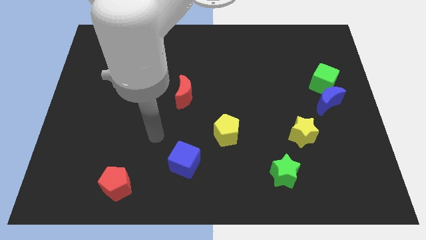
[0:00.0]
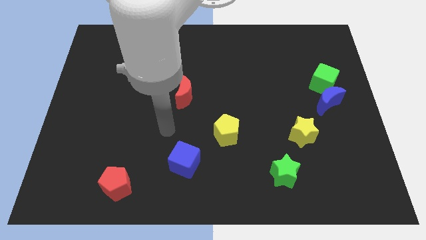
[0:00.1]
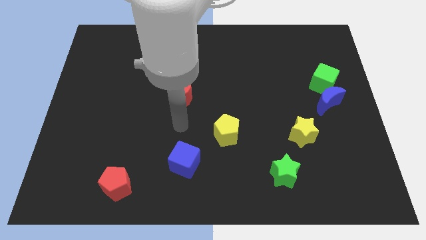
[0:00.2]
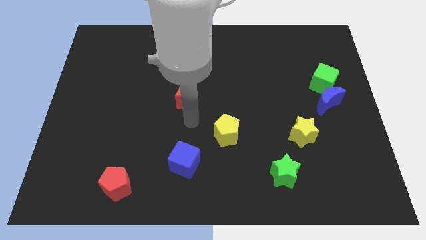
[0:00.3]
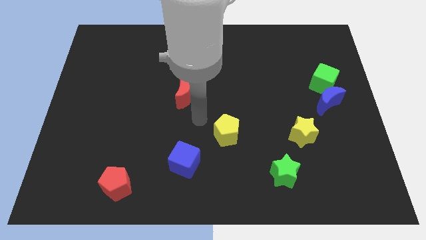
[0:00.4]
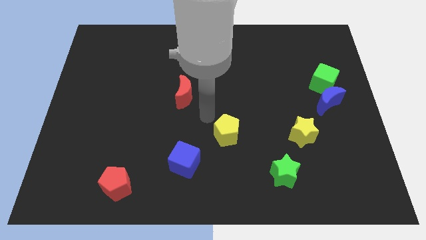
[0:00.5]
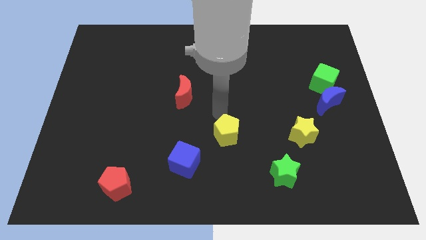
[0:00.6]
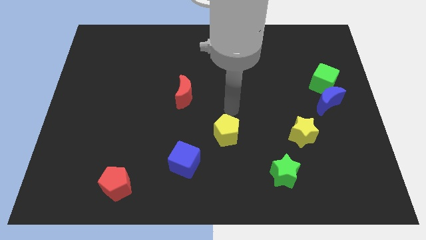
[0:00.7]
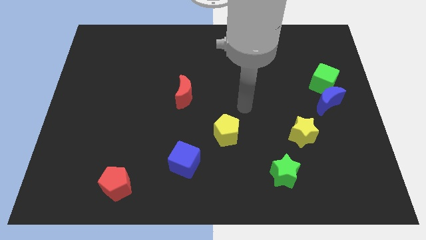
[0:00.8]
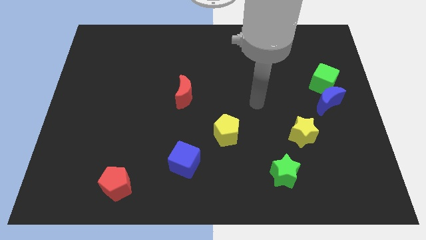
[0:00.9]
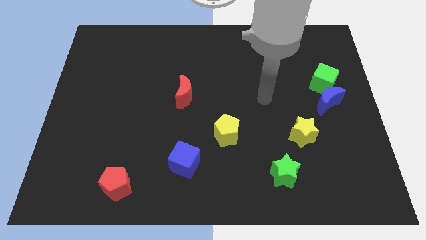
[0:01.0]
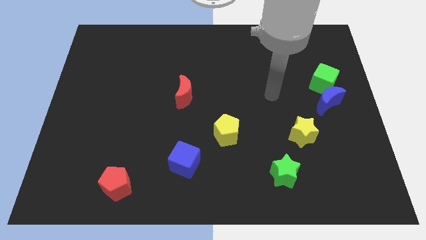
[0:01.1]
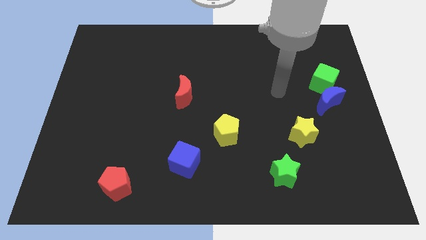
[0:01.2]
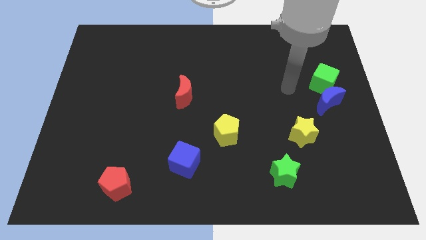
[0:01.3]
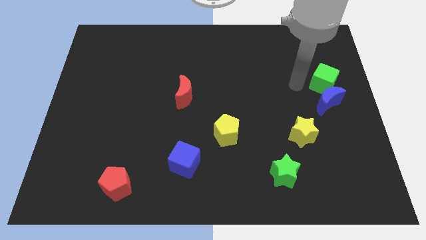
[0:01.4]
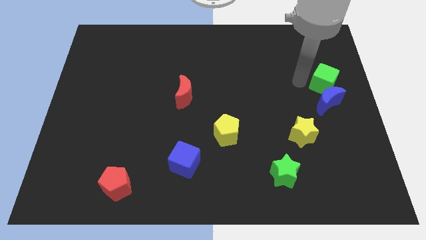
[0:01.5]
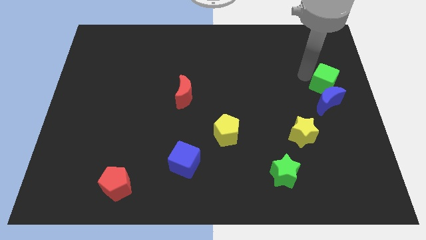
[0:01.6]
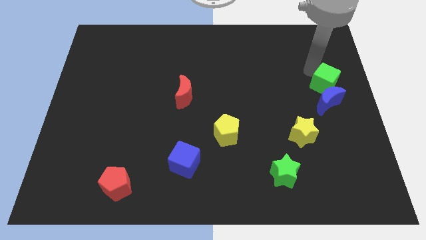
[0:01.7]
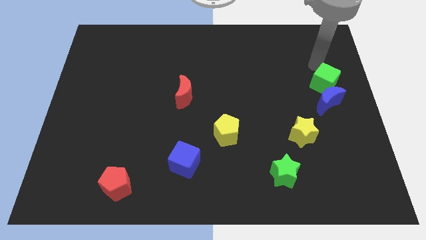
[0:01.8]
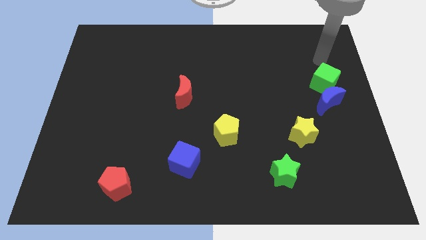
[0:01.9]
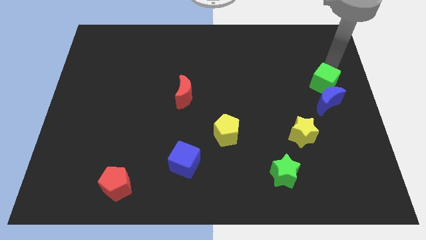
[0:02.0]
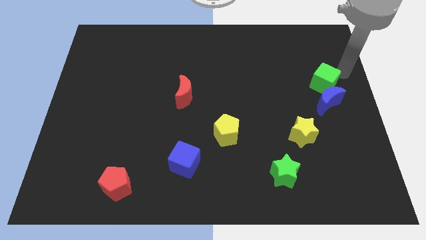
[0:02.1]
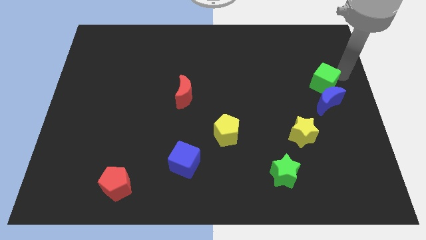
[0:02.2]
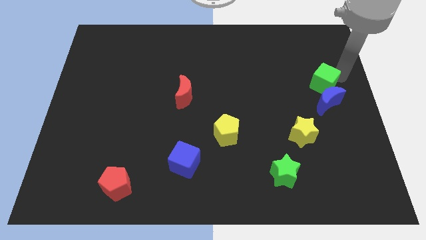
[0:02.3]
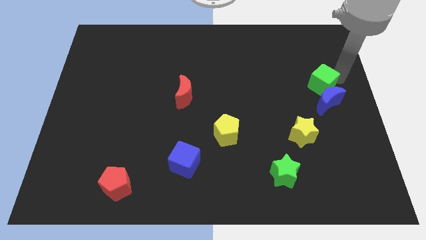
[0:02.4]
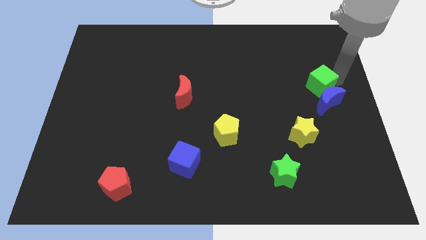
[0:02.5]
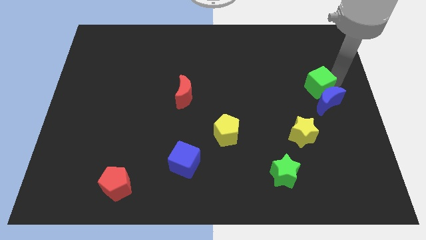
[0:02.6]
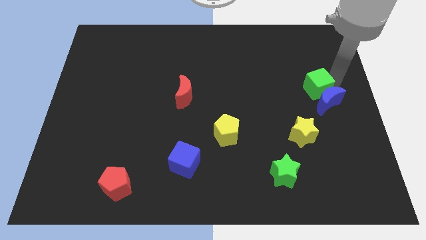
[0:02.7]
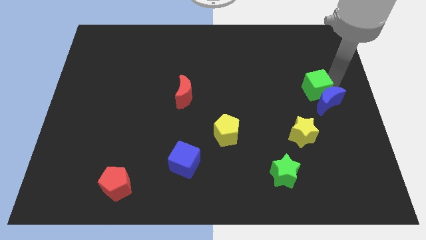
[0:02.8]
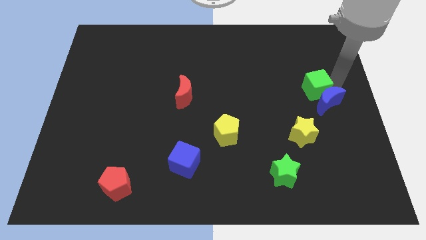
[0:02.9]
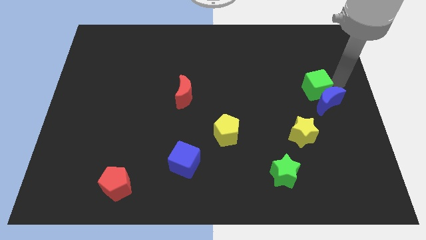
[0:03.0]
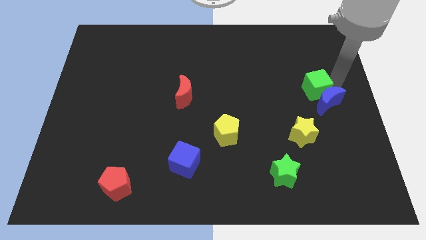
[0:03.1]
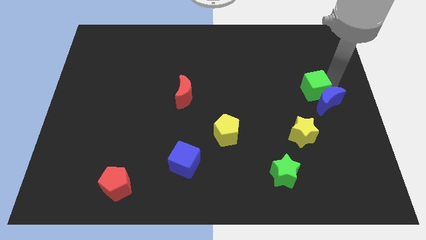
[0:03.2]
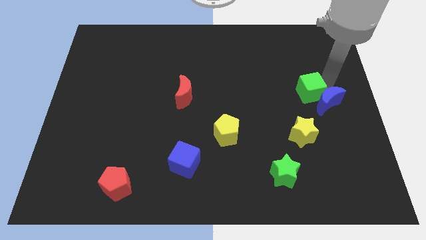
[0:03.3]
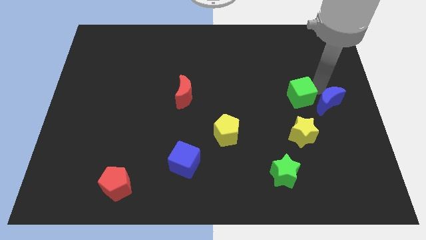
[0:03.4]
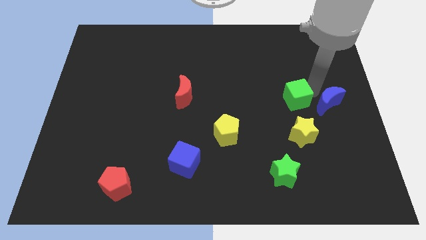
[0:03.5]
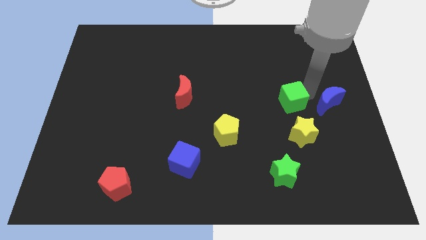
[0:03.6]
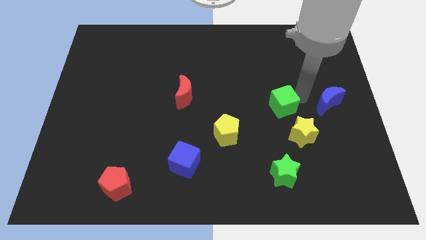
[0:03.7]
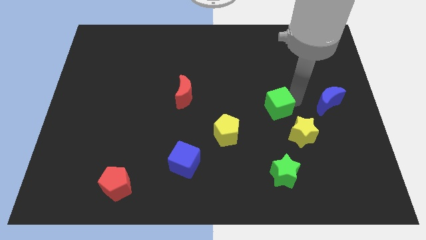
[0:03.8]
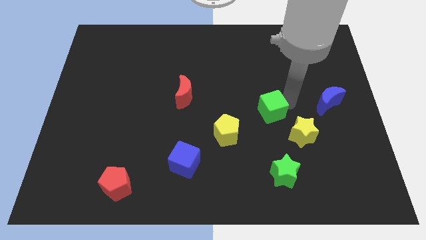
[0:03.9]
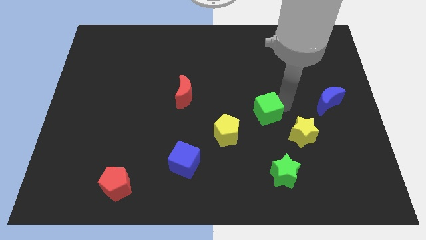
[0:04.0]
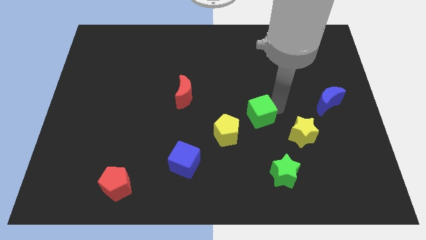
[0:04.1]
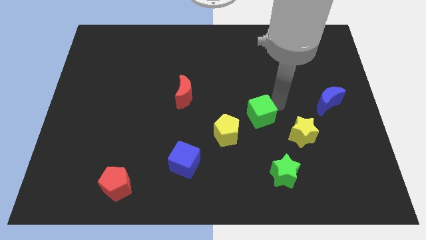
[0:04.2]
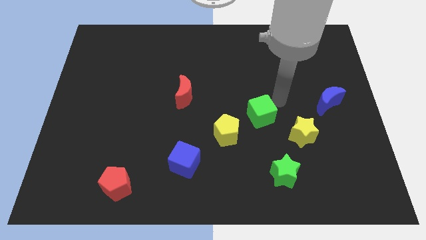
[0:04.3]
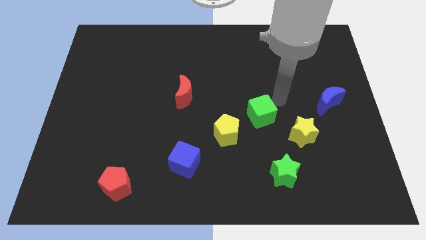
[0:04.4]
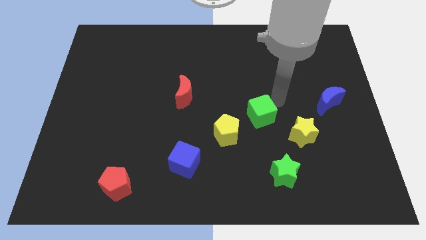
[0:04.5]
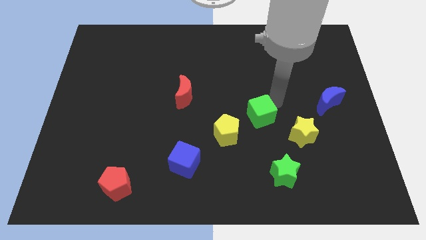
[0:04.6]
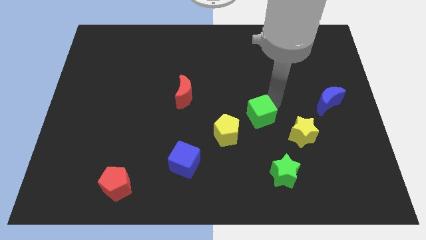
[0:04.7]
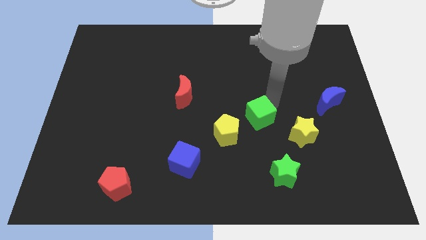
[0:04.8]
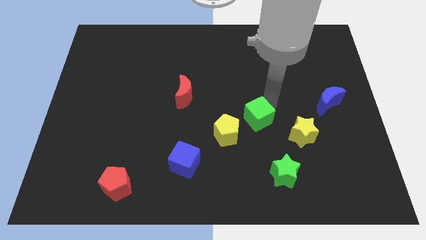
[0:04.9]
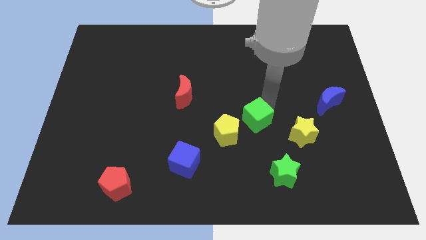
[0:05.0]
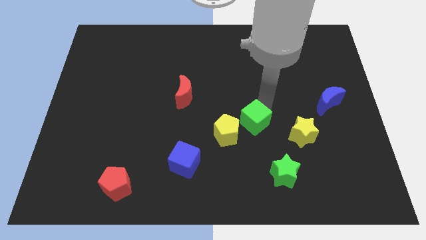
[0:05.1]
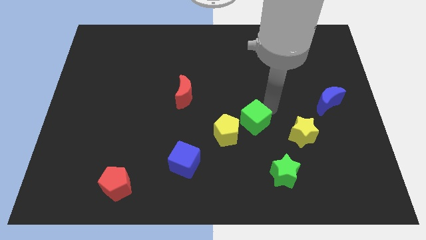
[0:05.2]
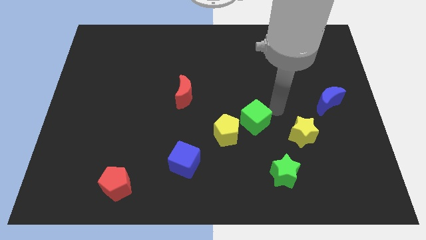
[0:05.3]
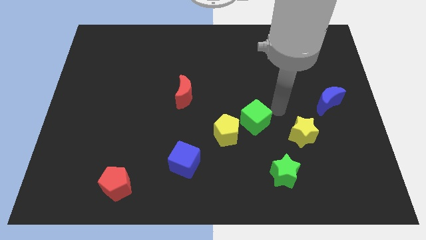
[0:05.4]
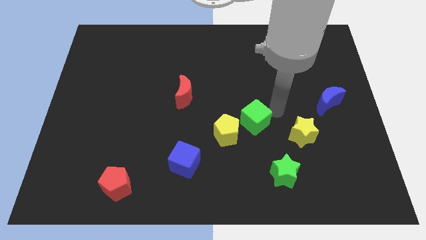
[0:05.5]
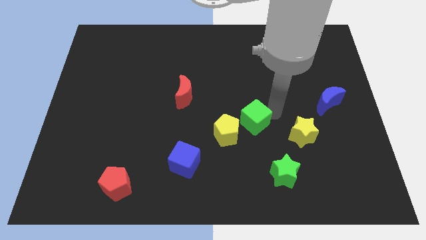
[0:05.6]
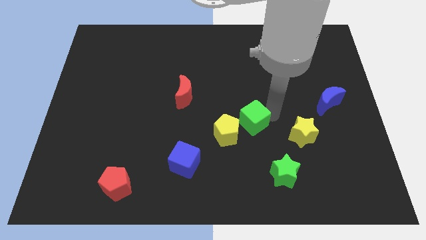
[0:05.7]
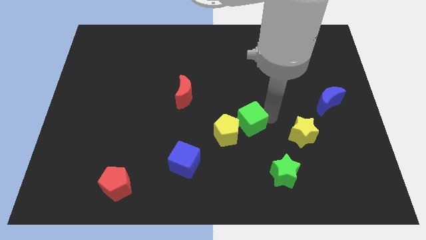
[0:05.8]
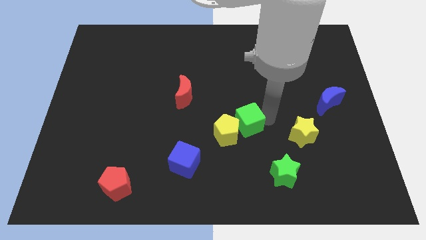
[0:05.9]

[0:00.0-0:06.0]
slide the green cube close to the yellow pentagon
